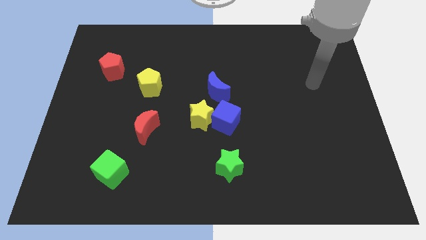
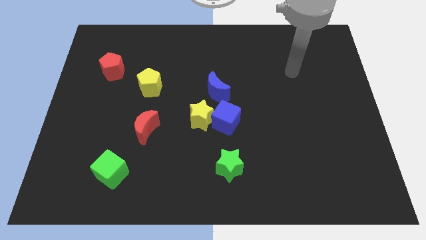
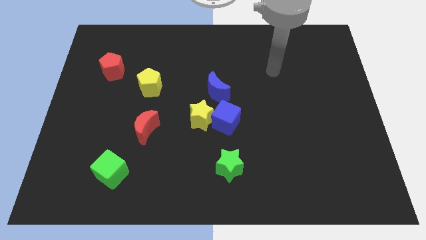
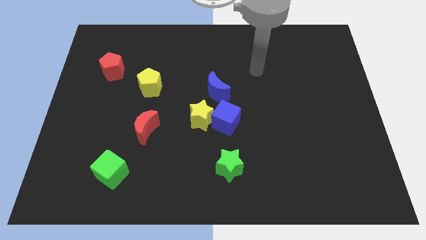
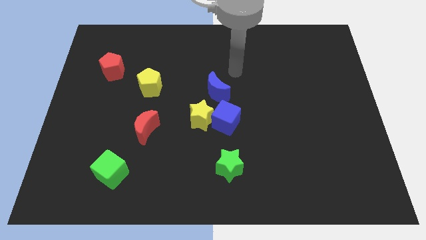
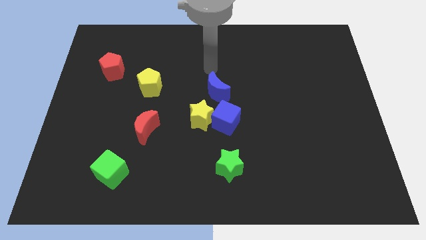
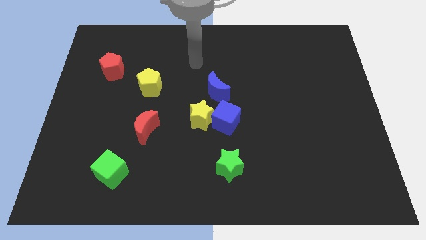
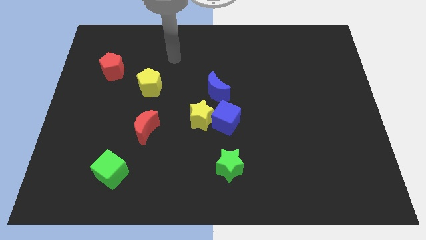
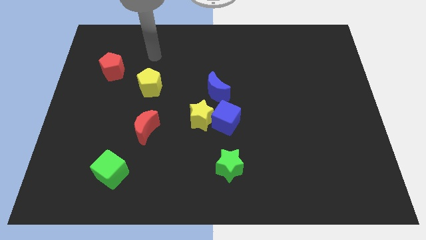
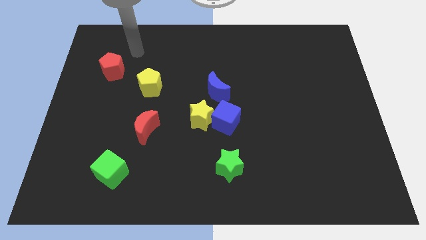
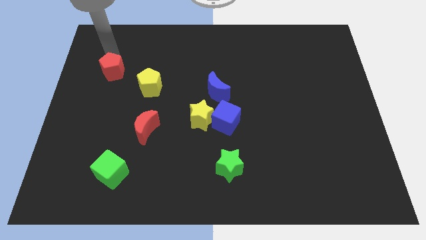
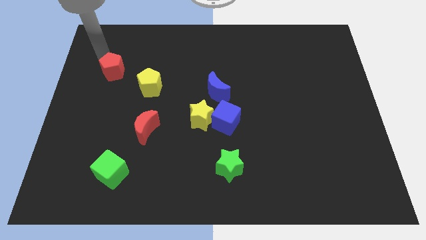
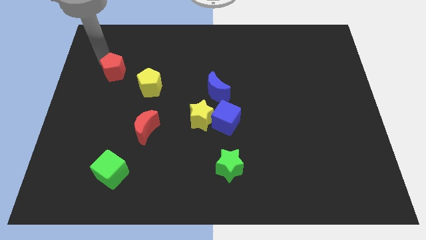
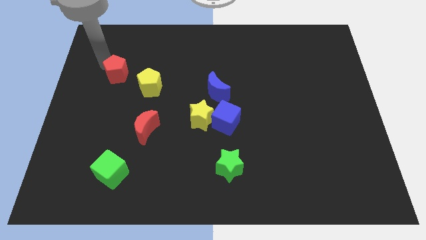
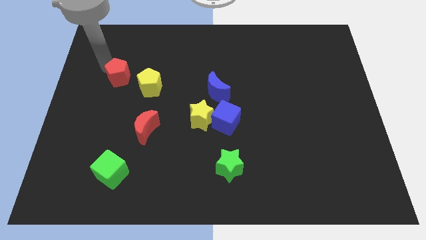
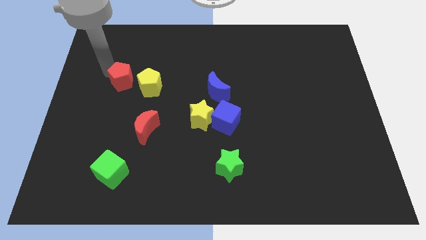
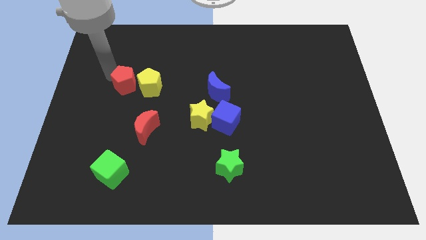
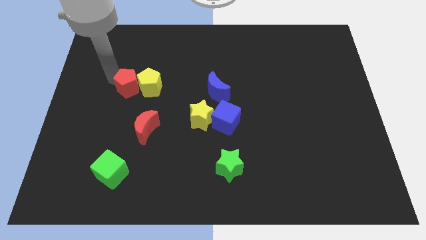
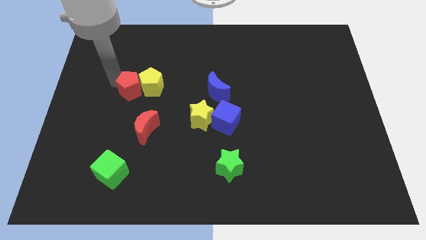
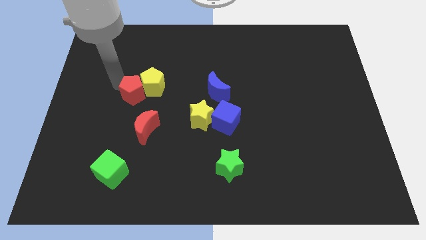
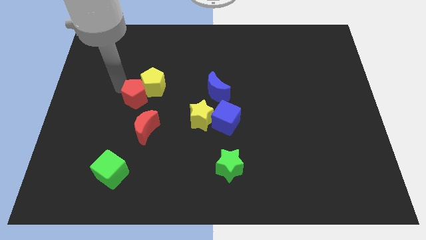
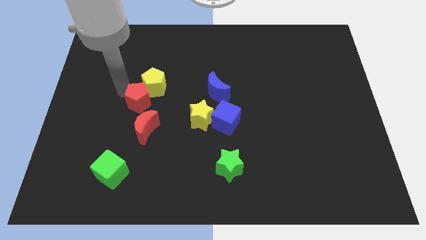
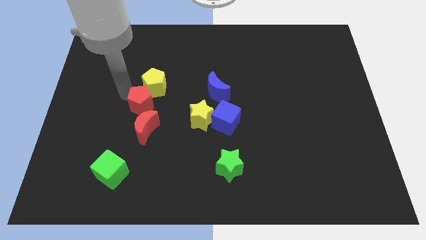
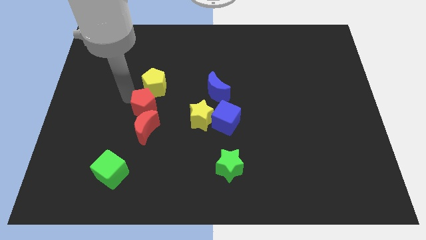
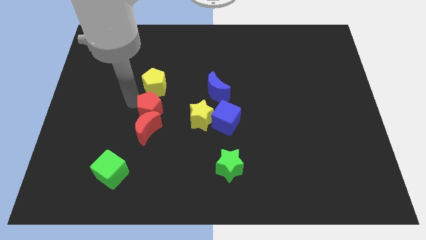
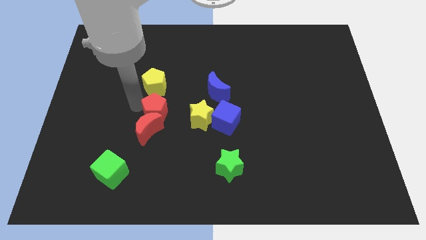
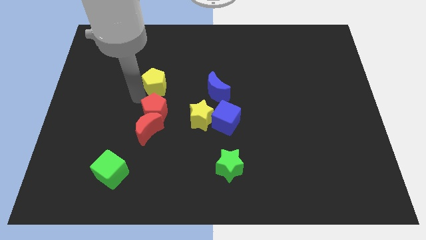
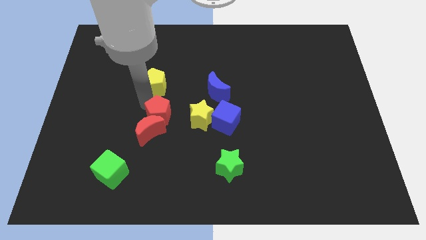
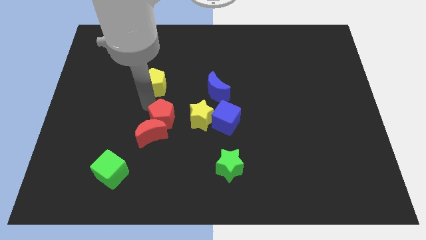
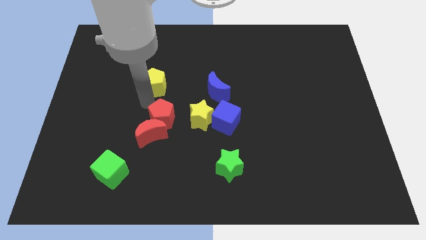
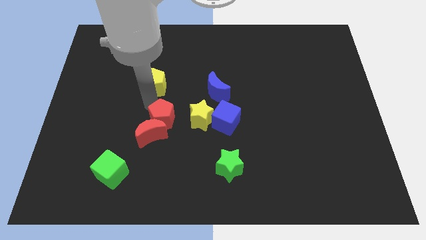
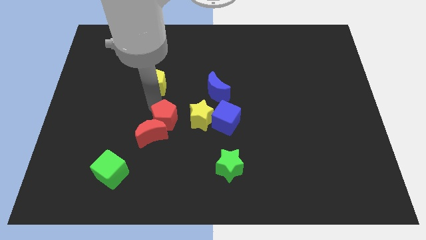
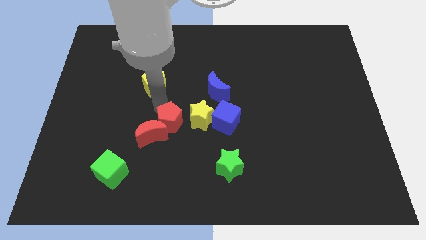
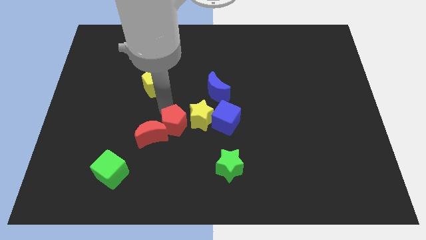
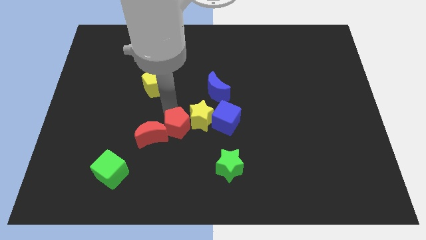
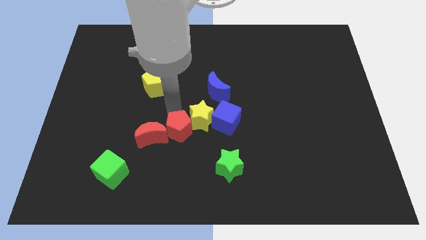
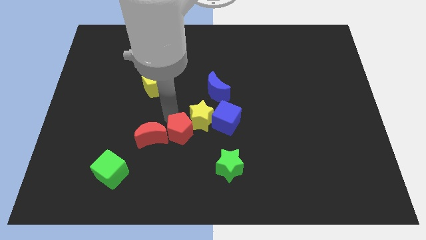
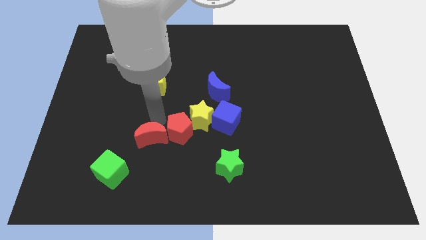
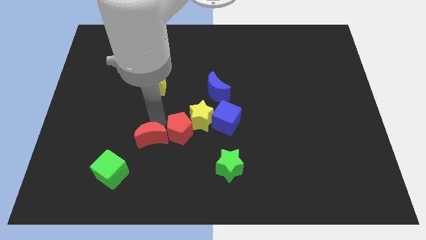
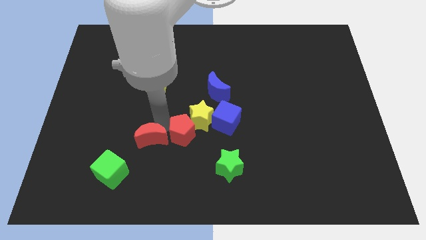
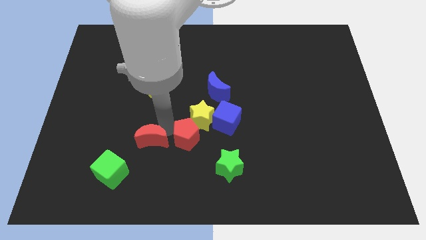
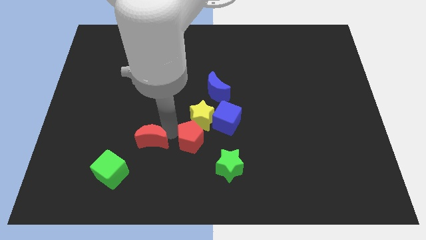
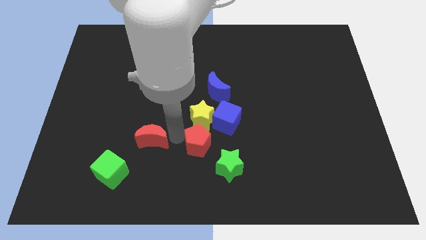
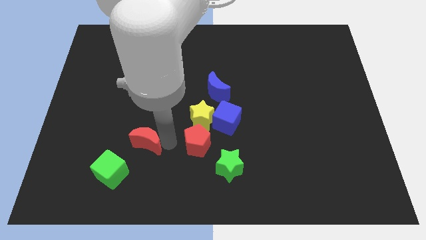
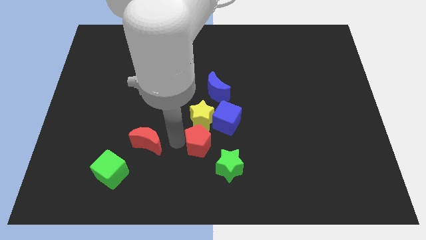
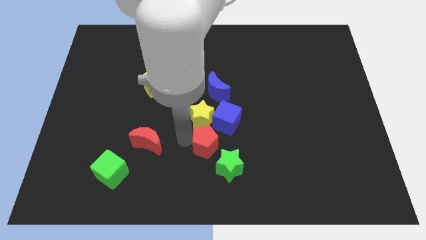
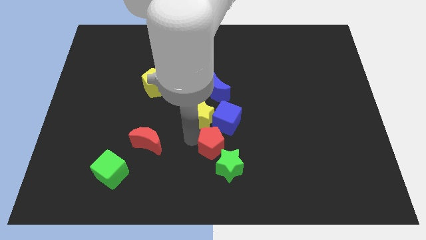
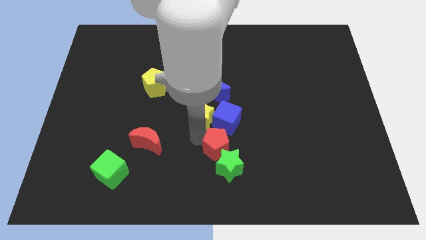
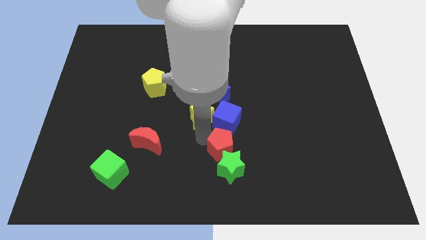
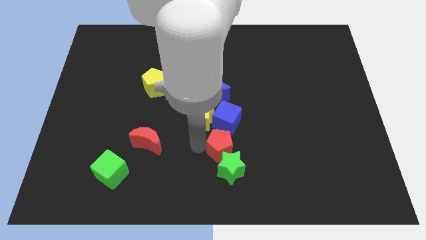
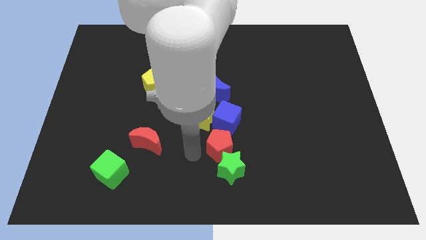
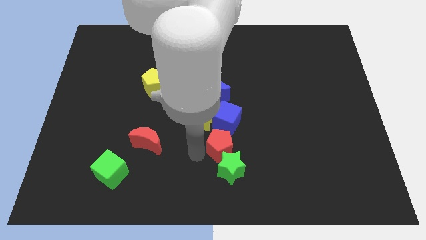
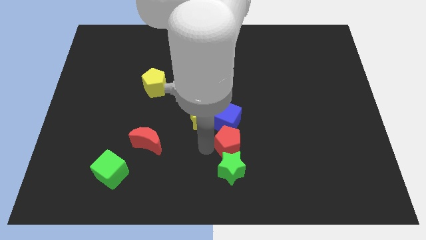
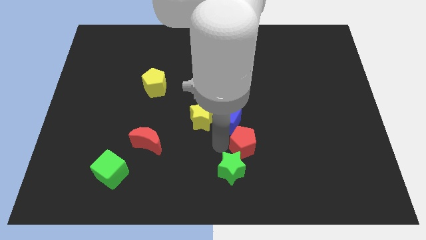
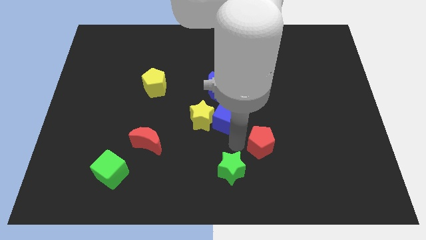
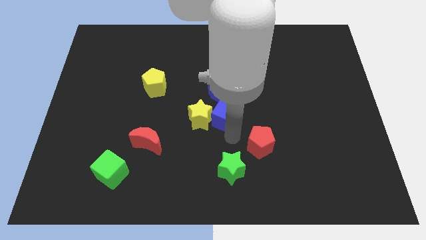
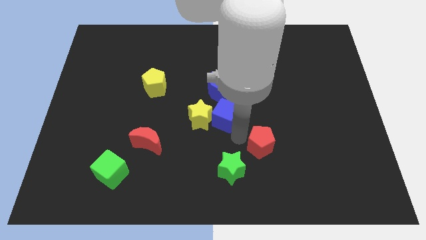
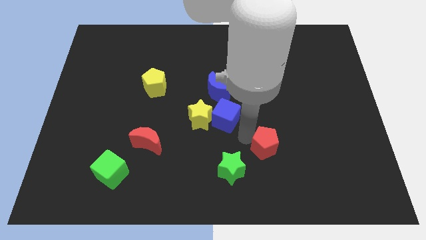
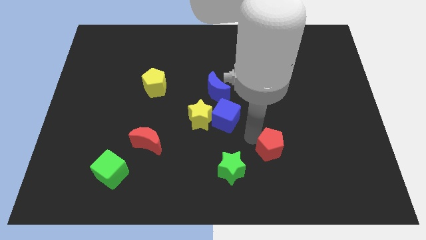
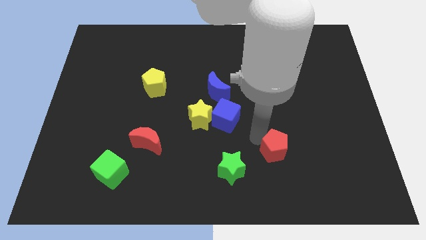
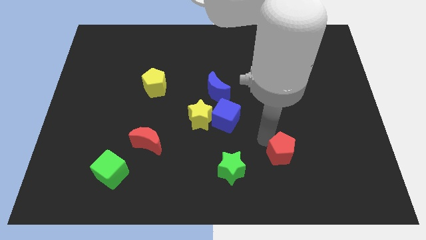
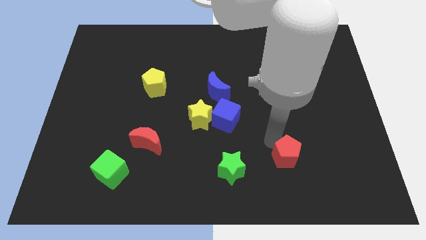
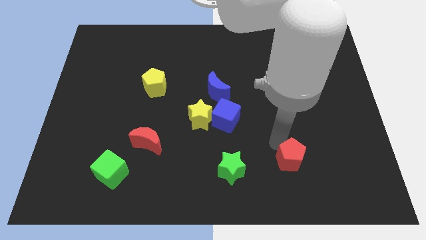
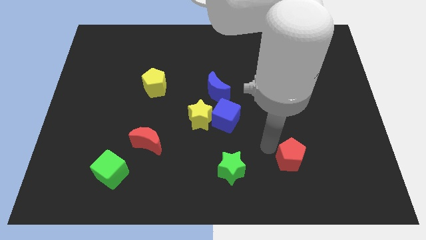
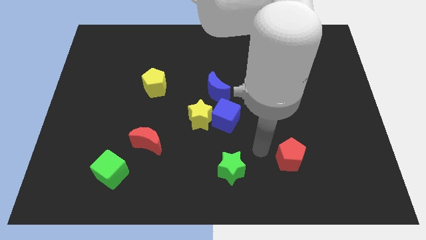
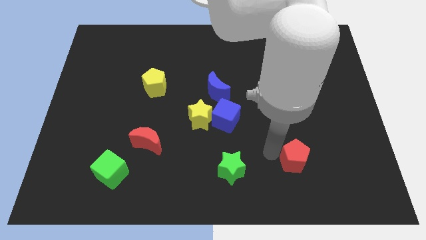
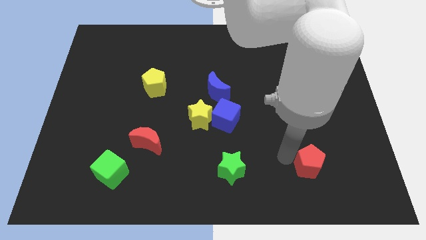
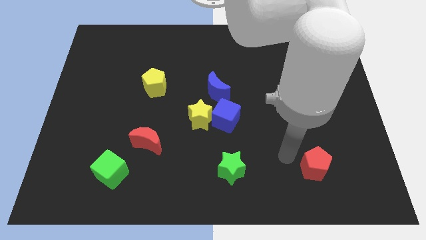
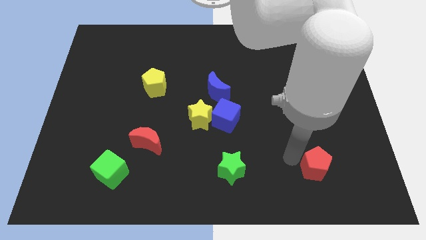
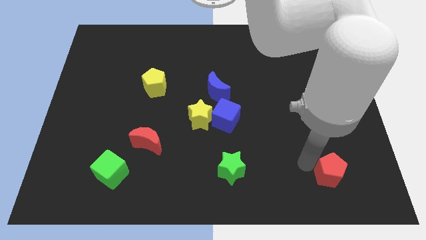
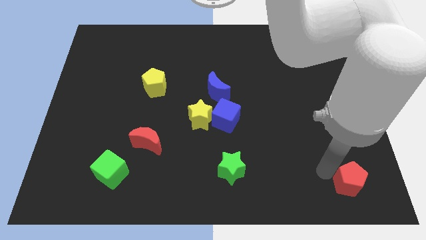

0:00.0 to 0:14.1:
slide the red pentagon to the bottom right of the board
